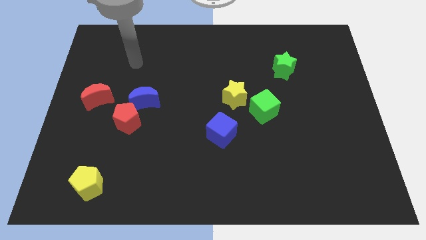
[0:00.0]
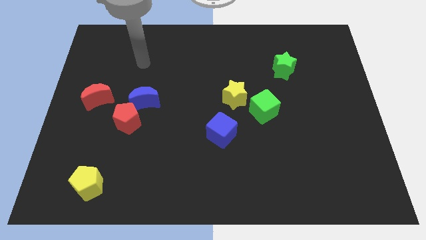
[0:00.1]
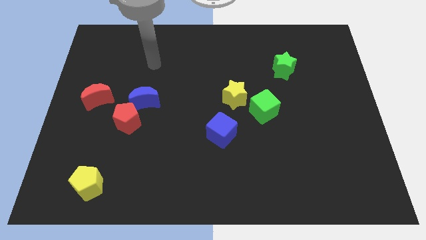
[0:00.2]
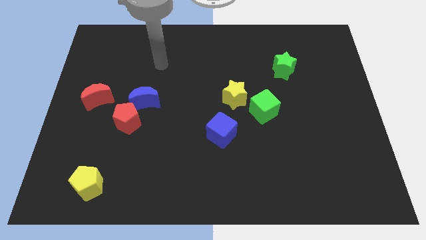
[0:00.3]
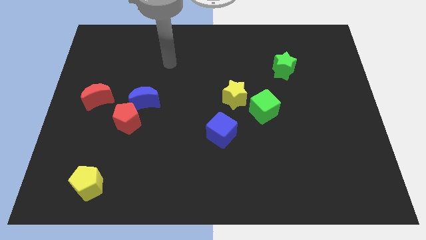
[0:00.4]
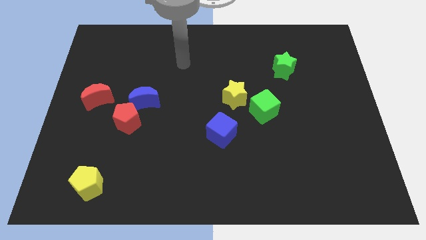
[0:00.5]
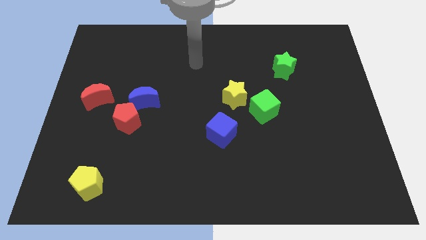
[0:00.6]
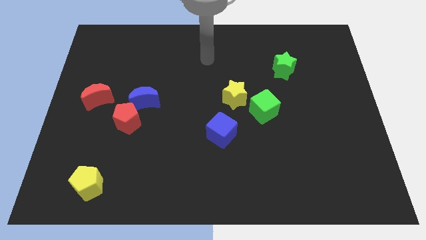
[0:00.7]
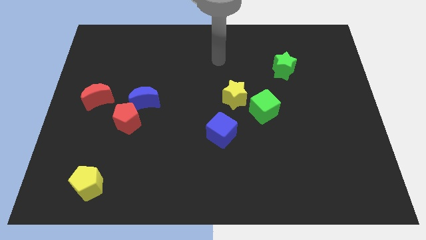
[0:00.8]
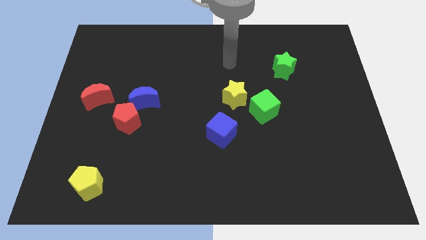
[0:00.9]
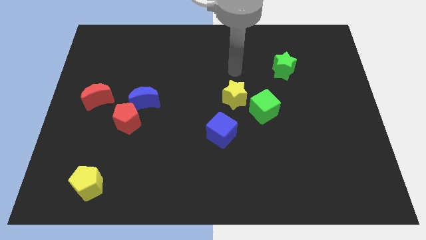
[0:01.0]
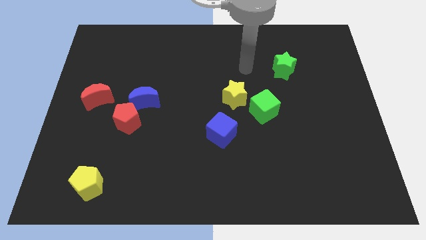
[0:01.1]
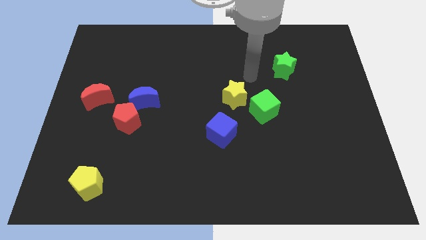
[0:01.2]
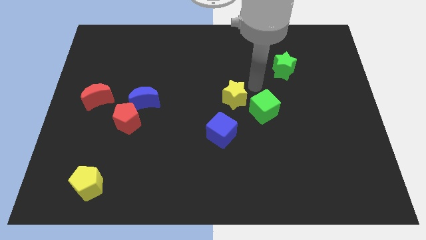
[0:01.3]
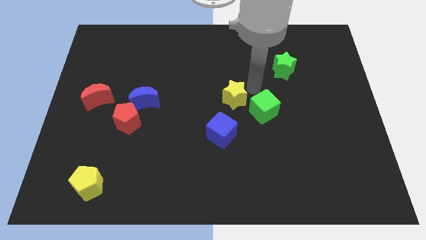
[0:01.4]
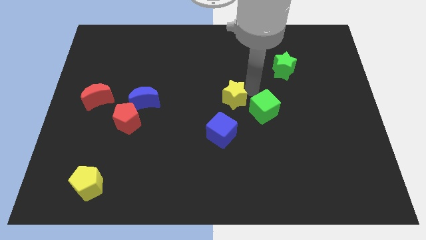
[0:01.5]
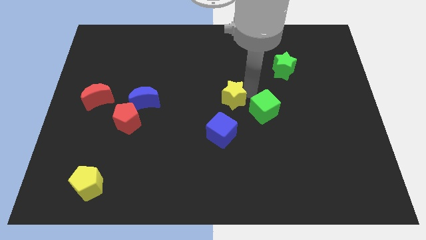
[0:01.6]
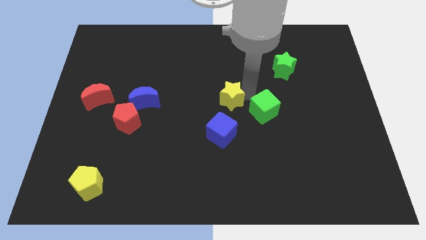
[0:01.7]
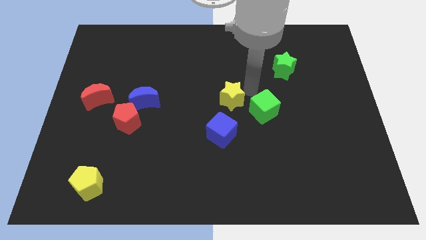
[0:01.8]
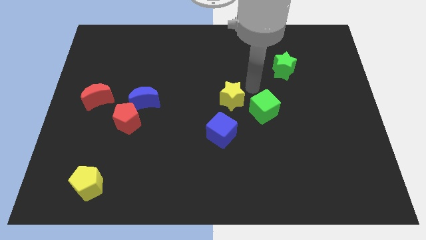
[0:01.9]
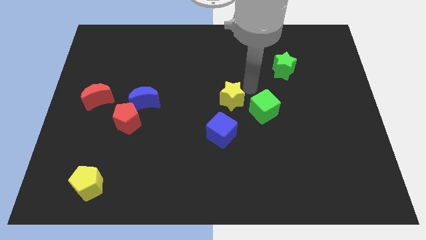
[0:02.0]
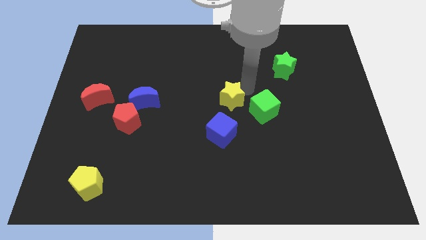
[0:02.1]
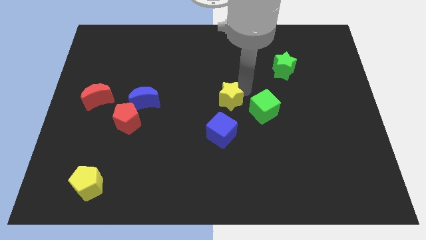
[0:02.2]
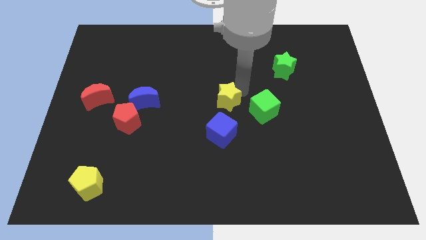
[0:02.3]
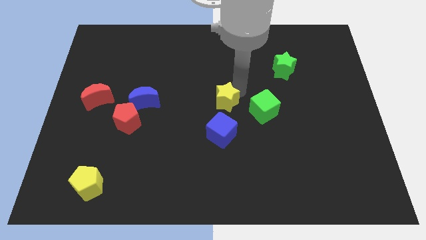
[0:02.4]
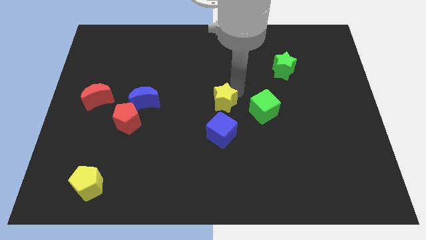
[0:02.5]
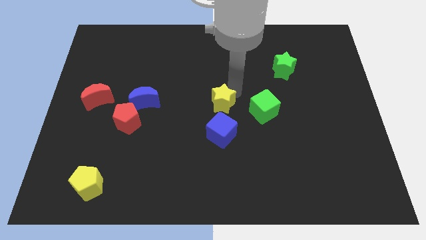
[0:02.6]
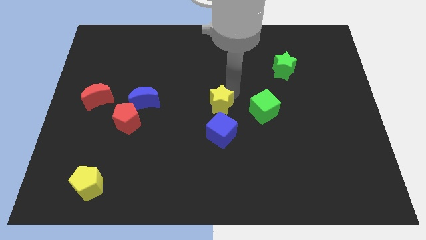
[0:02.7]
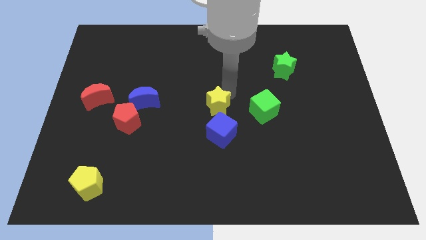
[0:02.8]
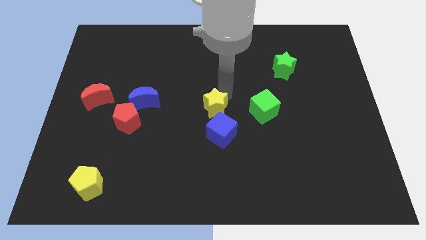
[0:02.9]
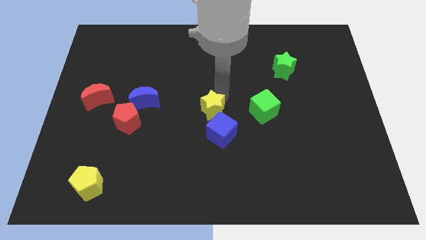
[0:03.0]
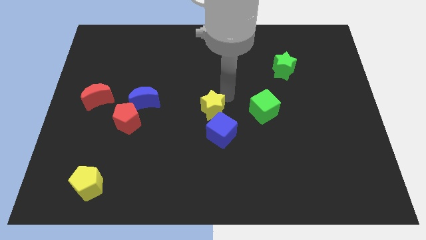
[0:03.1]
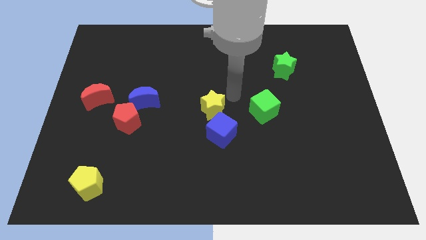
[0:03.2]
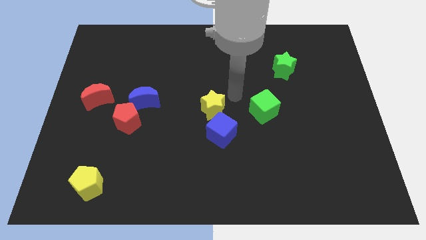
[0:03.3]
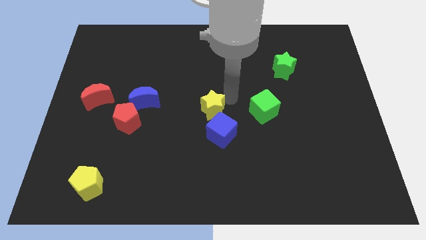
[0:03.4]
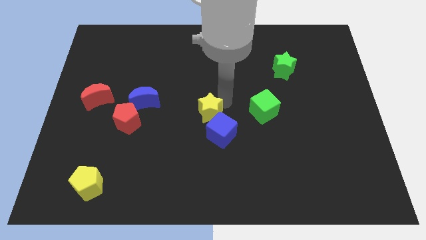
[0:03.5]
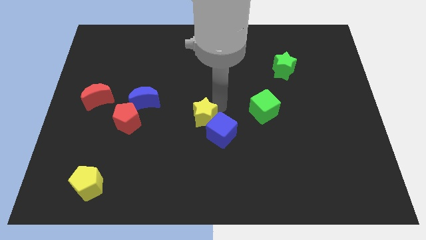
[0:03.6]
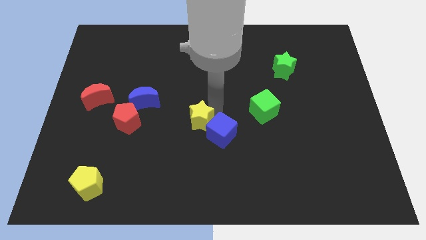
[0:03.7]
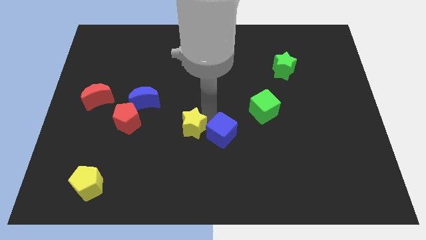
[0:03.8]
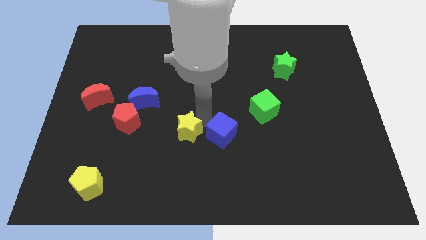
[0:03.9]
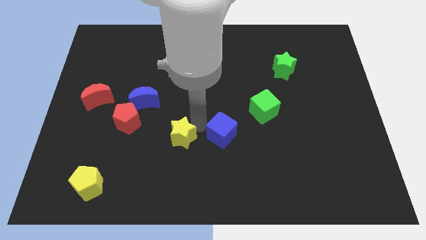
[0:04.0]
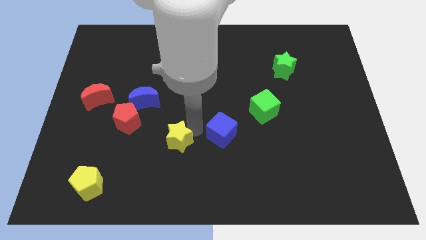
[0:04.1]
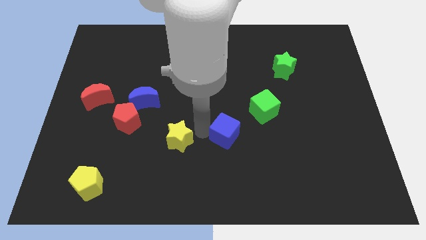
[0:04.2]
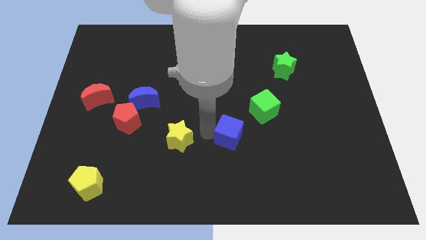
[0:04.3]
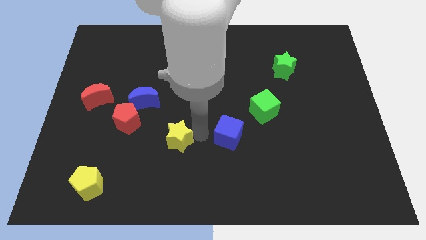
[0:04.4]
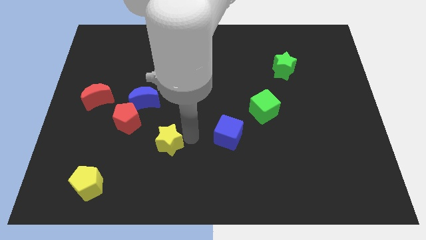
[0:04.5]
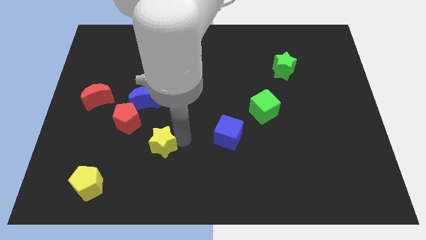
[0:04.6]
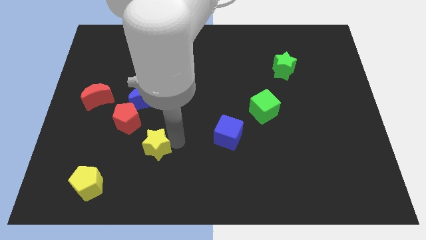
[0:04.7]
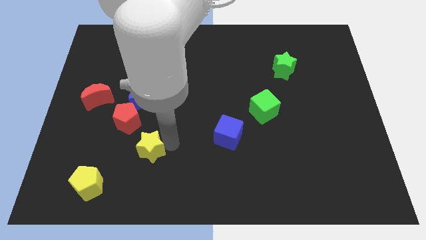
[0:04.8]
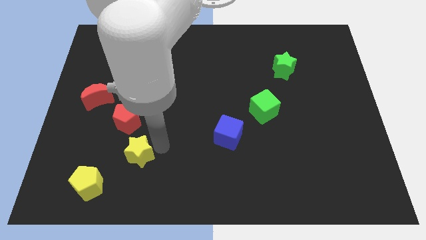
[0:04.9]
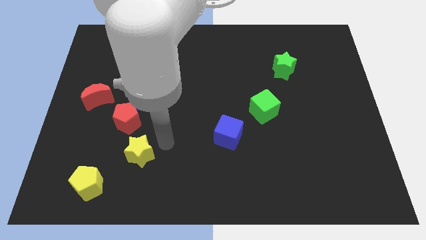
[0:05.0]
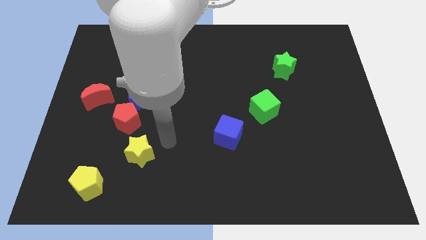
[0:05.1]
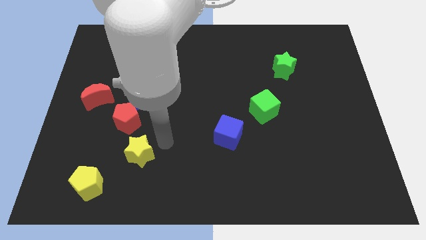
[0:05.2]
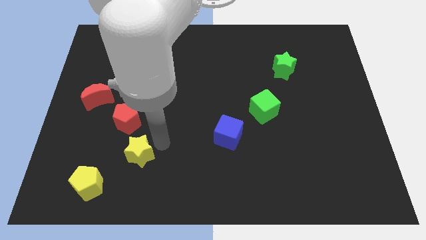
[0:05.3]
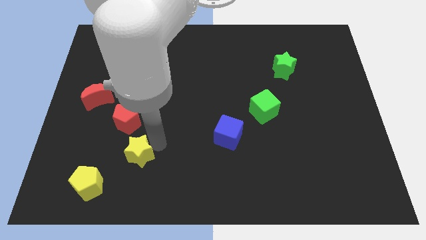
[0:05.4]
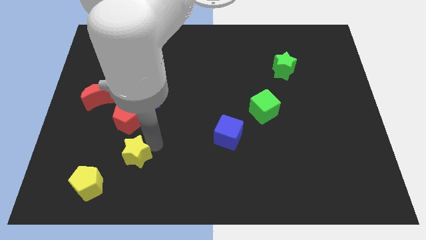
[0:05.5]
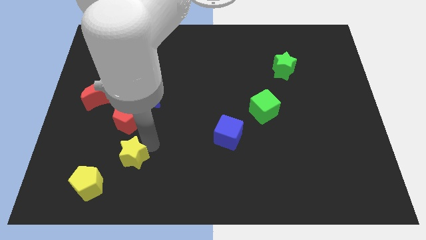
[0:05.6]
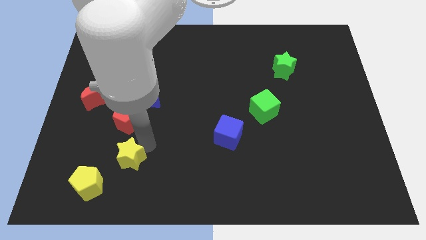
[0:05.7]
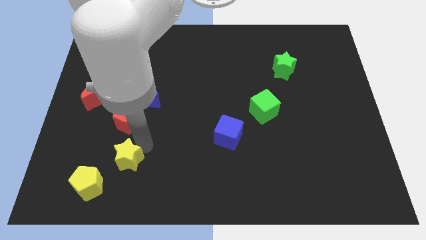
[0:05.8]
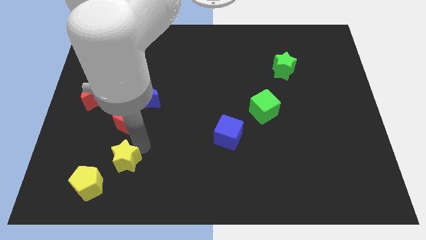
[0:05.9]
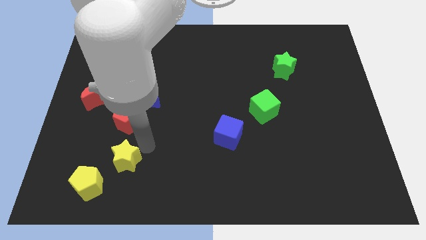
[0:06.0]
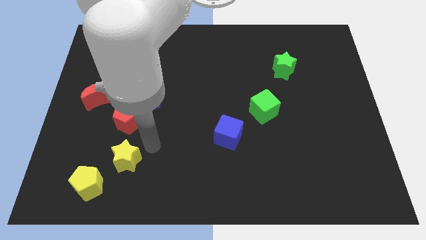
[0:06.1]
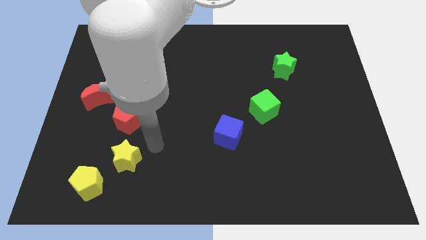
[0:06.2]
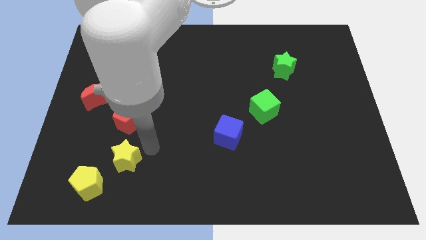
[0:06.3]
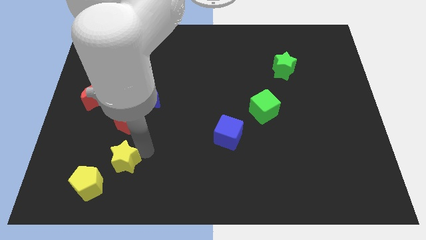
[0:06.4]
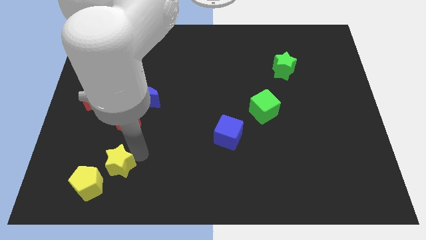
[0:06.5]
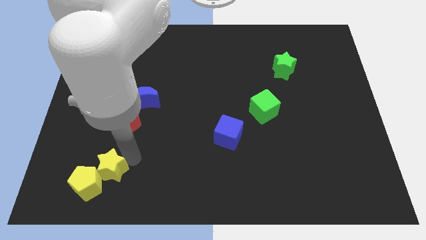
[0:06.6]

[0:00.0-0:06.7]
slide the yellow star close to the yellow pentagon

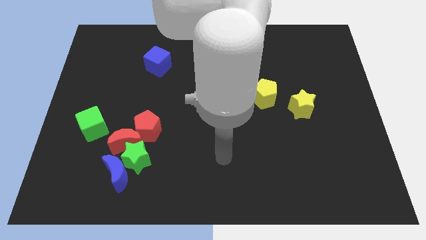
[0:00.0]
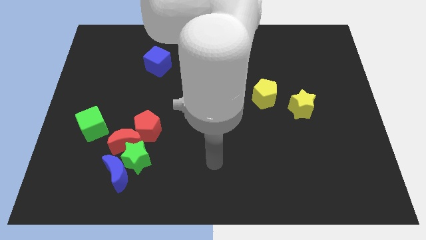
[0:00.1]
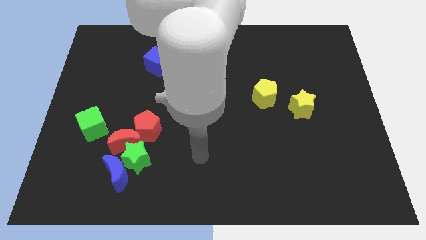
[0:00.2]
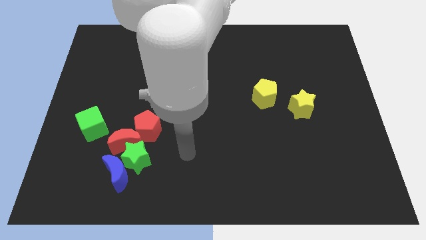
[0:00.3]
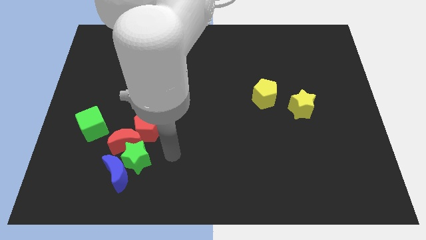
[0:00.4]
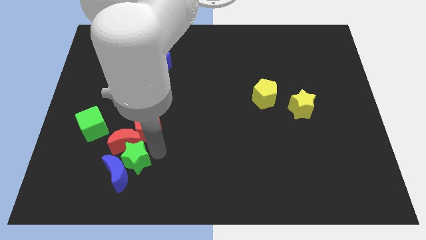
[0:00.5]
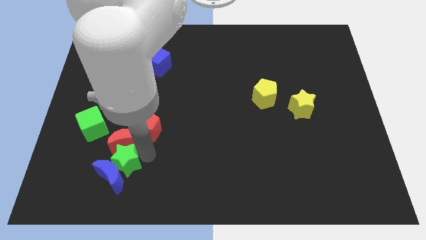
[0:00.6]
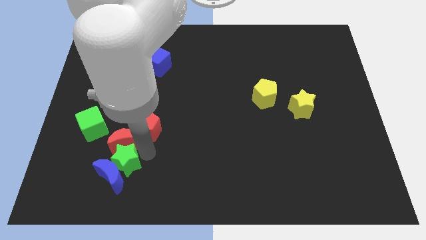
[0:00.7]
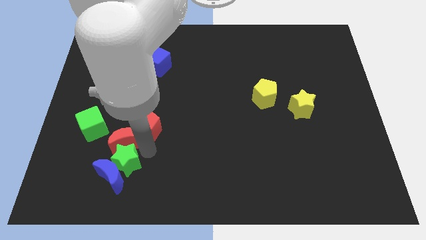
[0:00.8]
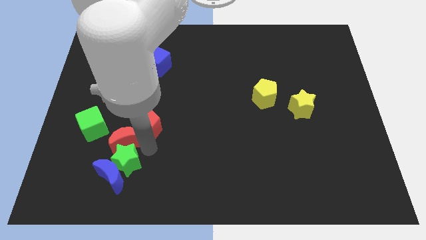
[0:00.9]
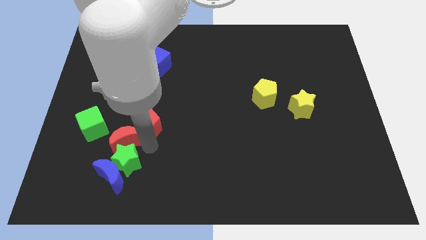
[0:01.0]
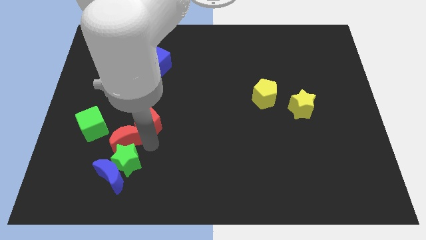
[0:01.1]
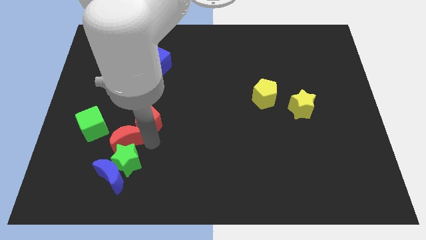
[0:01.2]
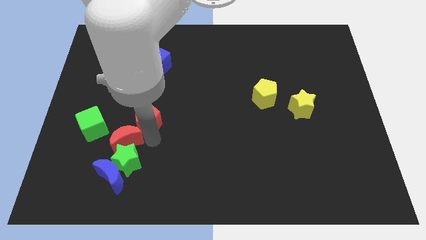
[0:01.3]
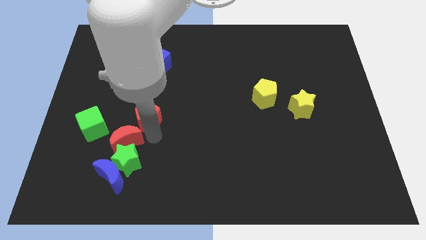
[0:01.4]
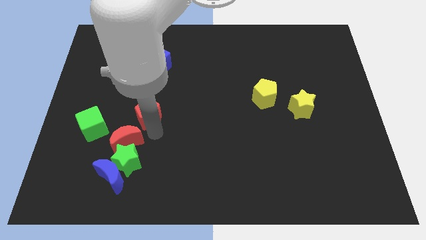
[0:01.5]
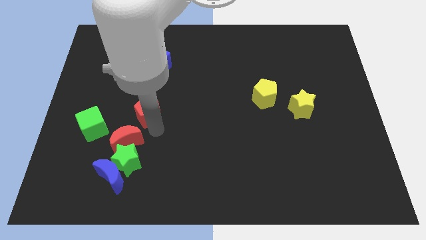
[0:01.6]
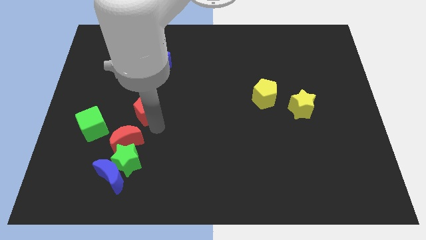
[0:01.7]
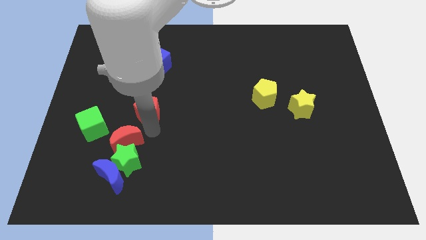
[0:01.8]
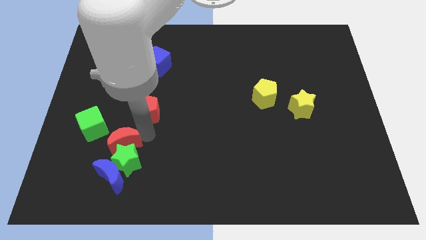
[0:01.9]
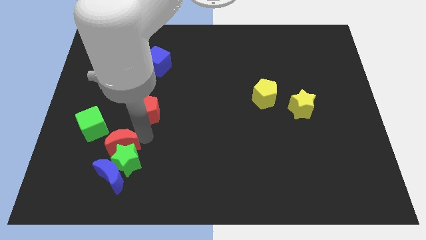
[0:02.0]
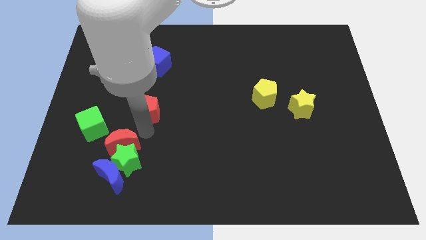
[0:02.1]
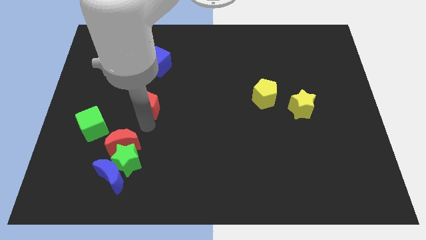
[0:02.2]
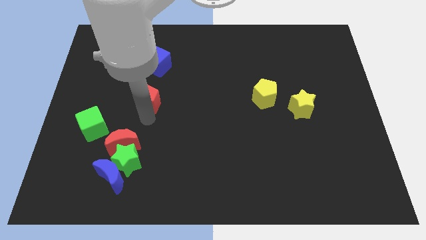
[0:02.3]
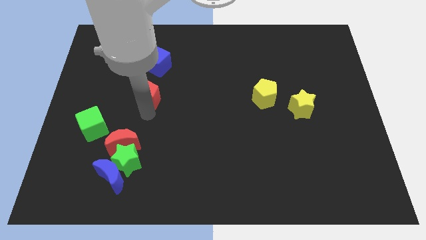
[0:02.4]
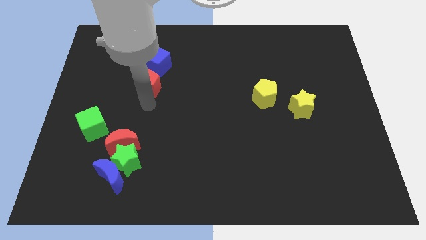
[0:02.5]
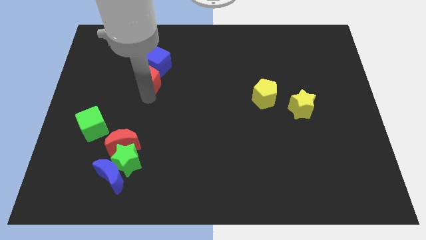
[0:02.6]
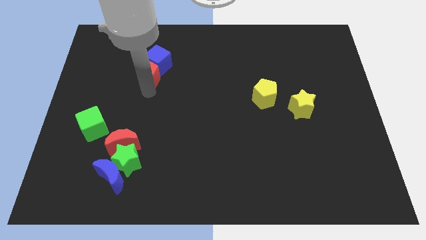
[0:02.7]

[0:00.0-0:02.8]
move the red pentagon towards the blue cube
